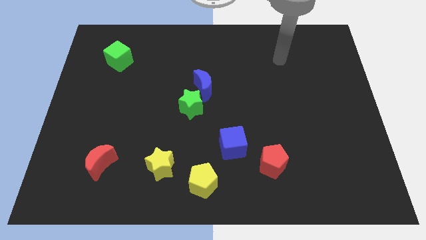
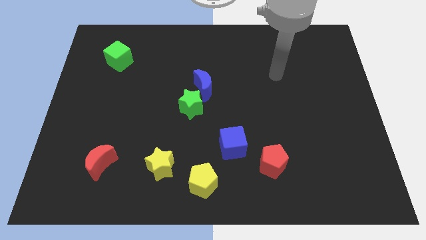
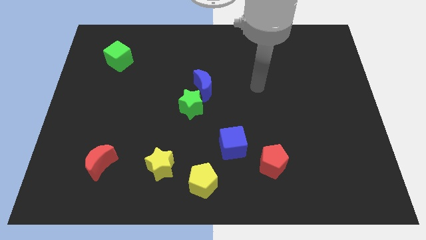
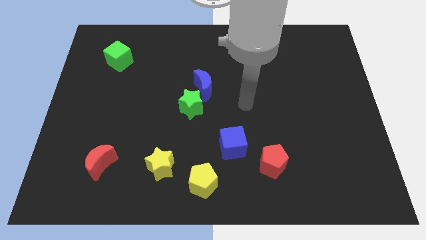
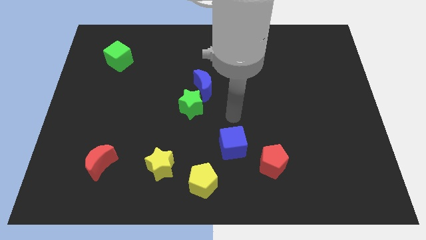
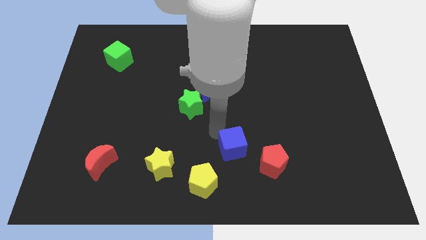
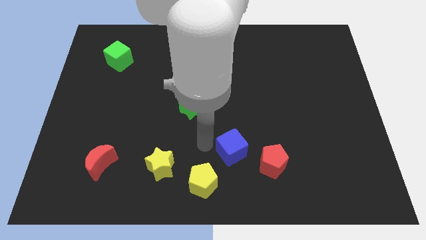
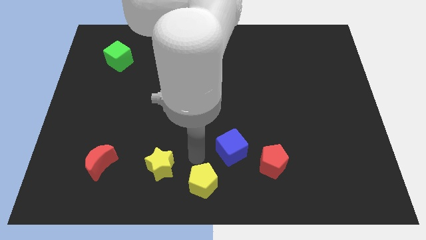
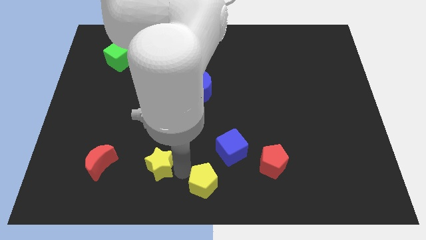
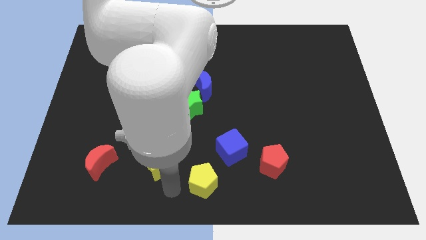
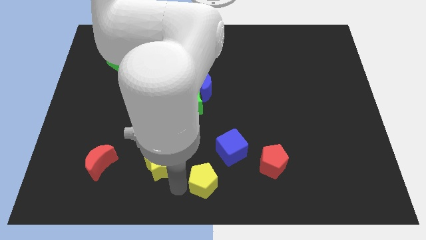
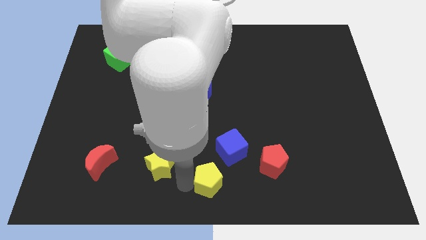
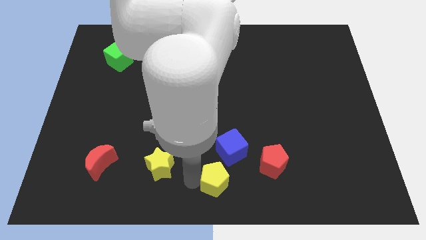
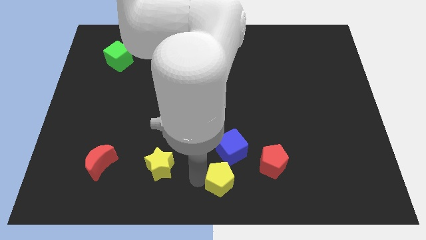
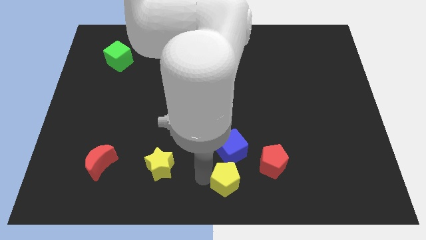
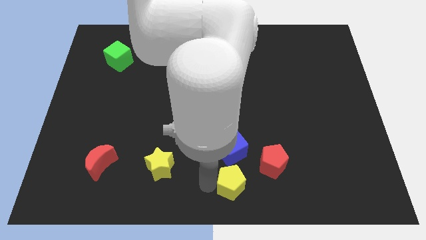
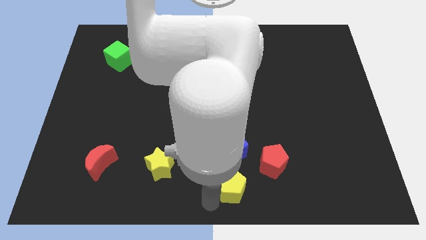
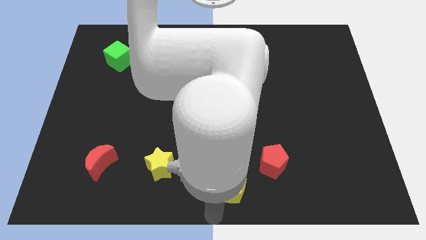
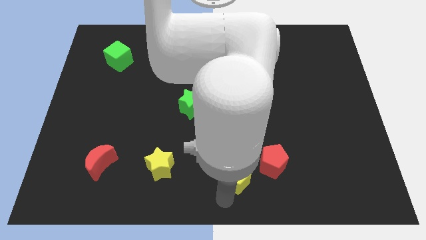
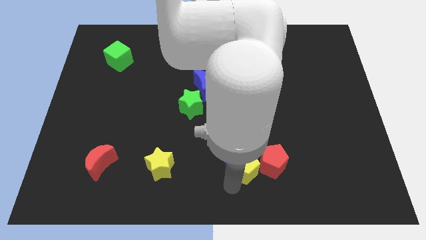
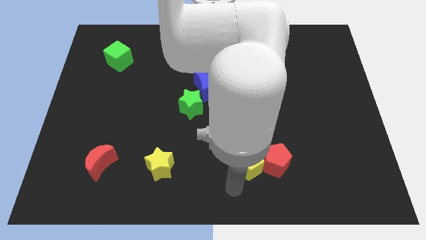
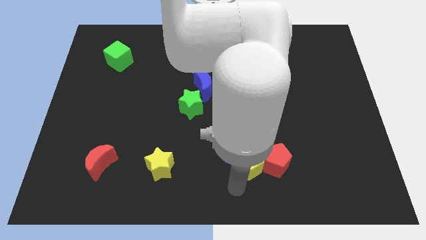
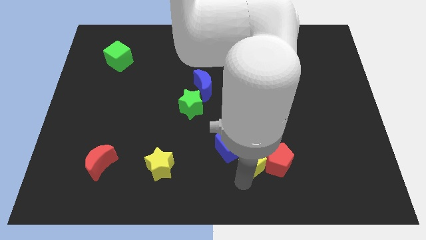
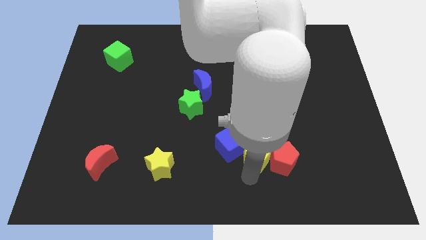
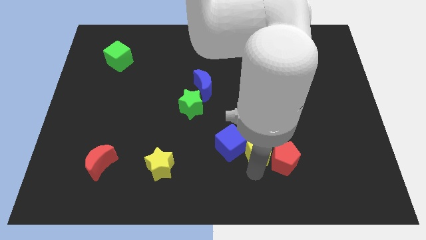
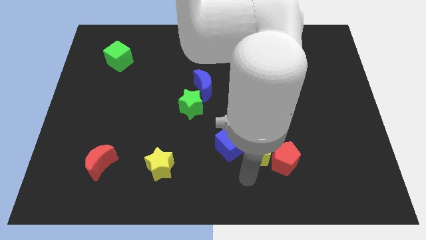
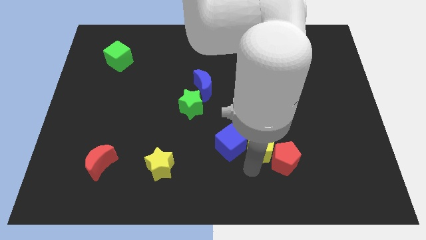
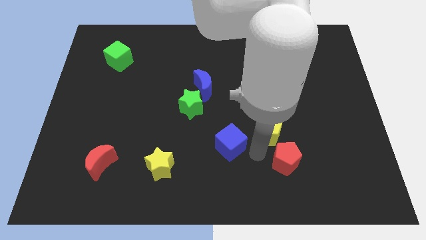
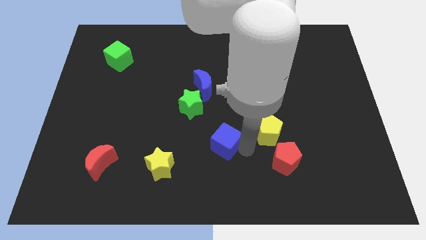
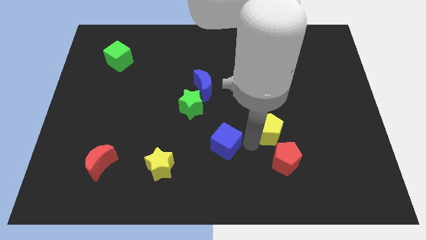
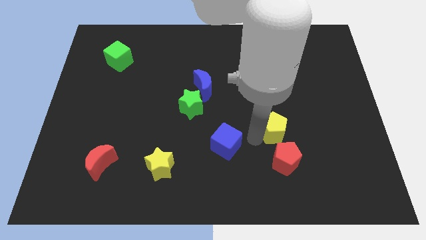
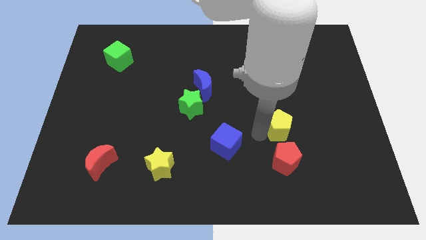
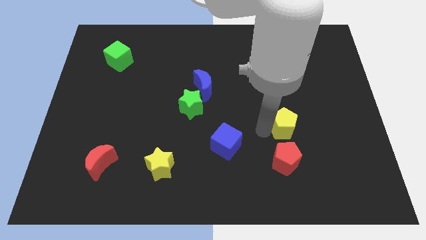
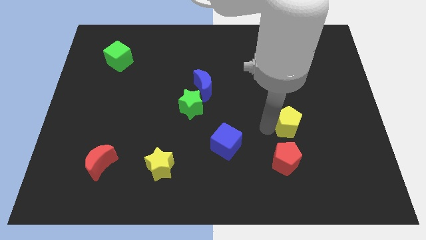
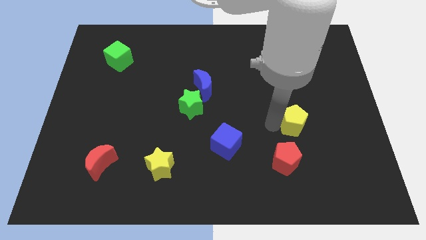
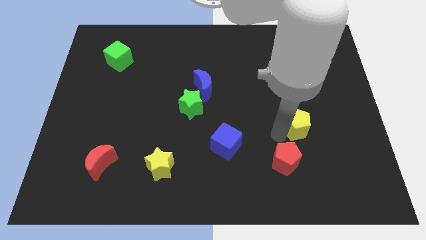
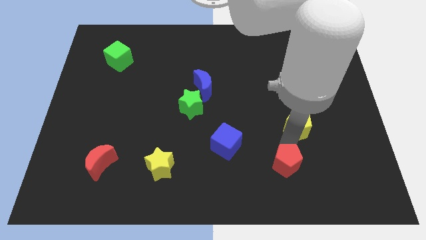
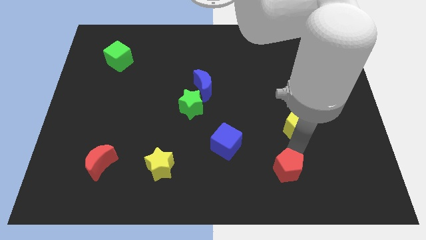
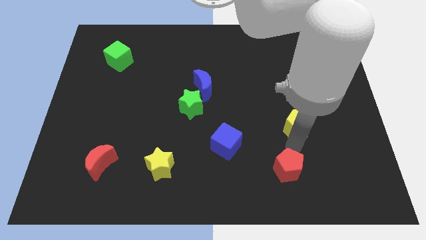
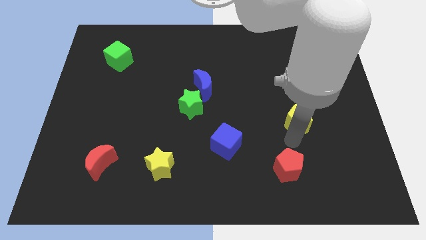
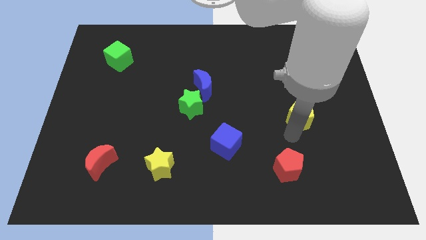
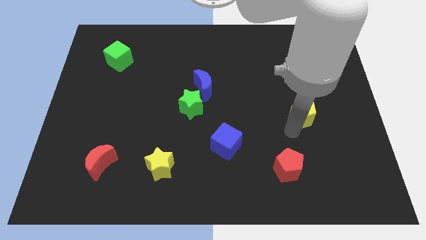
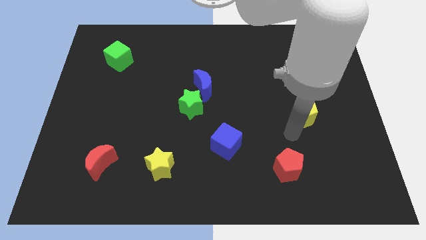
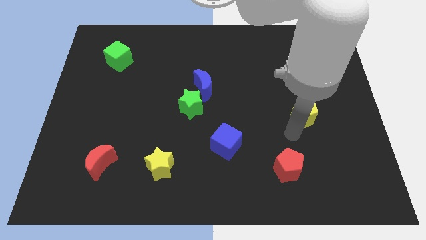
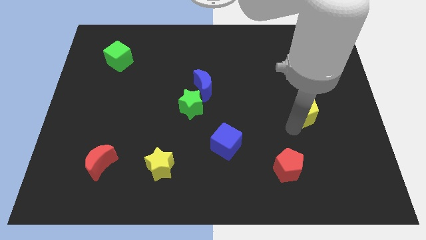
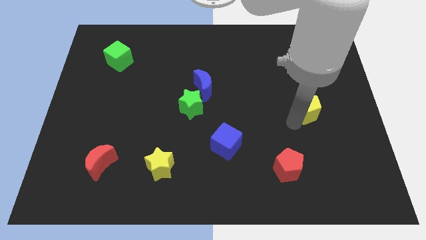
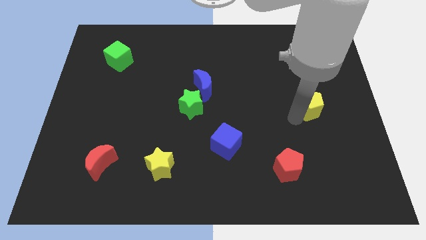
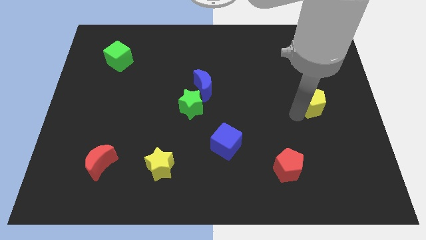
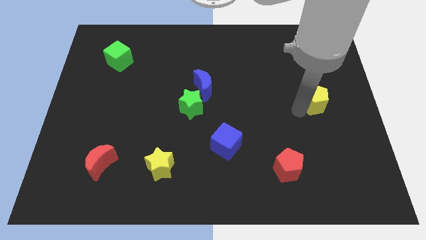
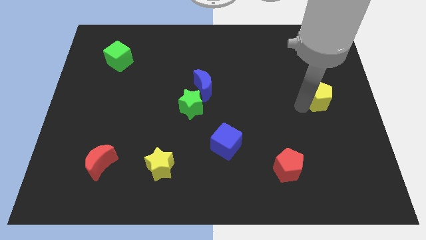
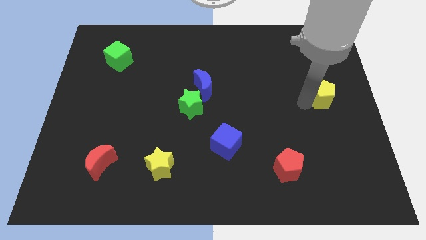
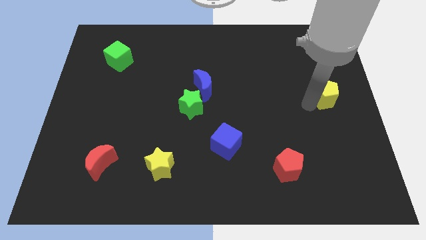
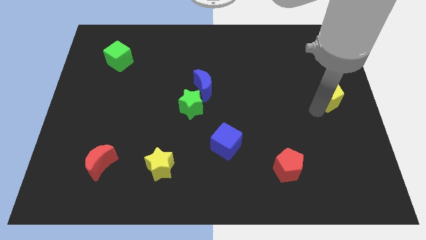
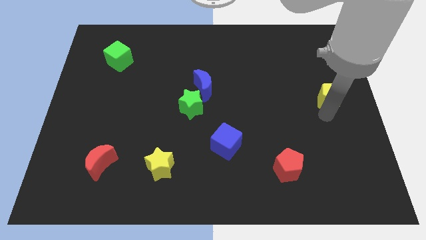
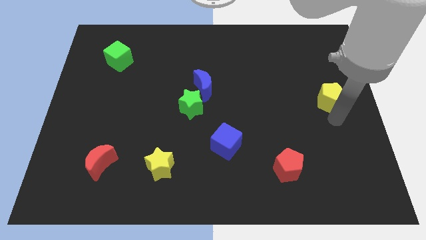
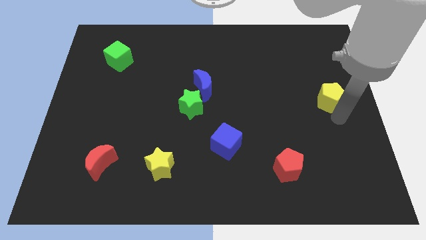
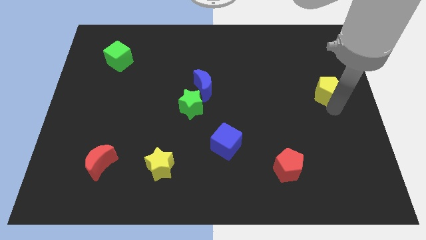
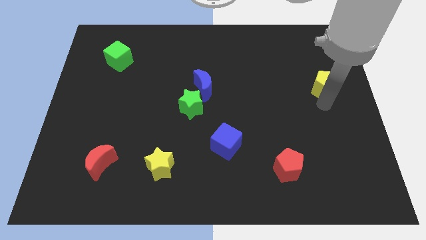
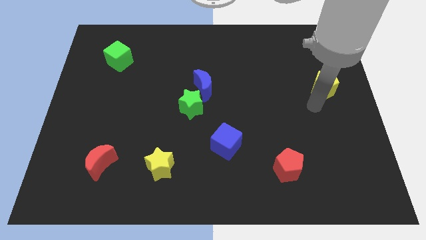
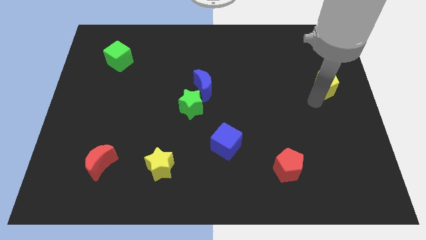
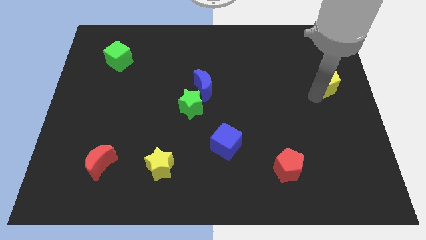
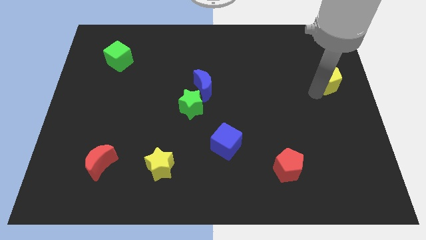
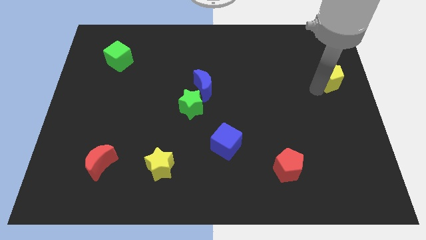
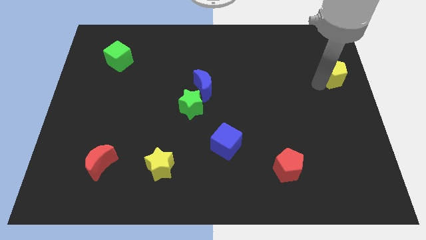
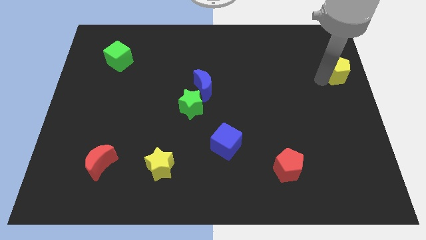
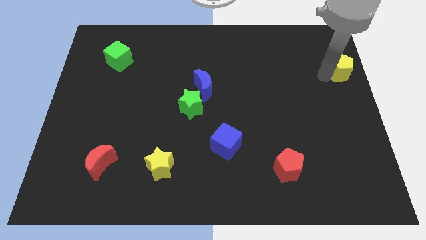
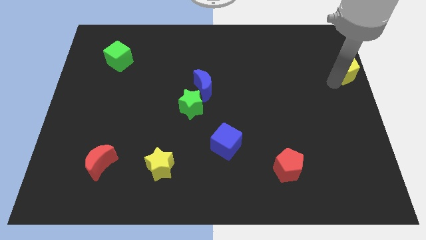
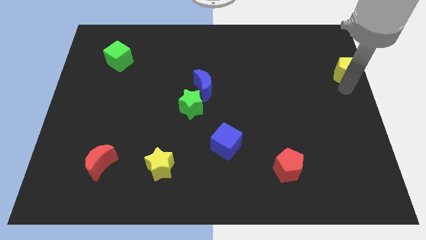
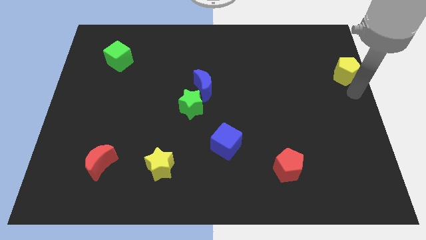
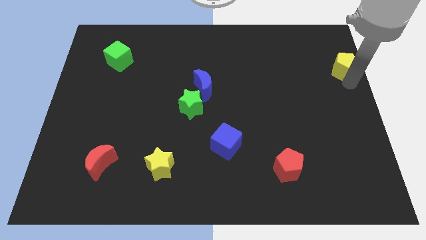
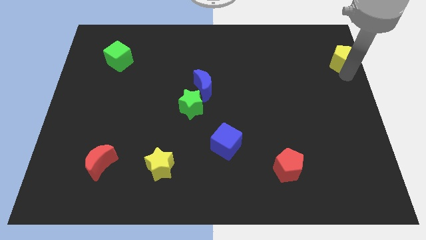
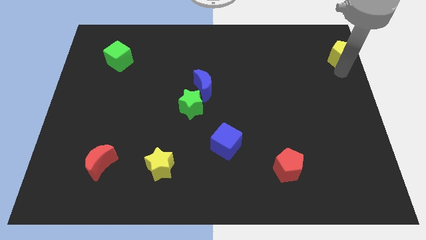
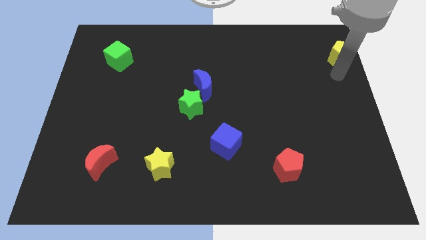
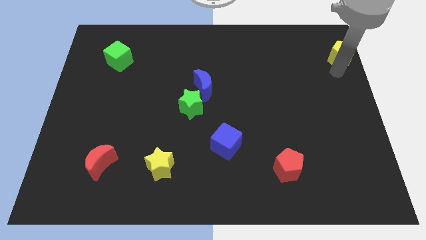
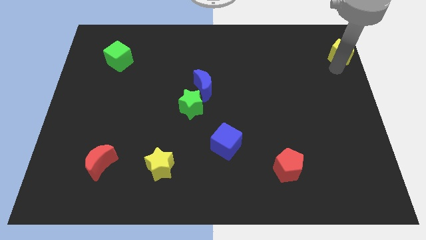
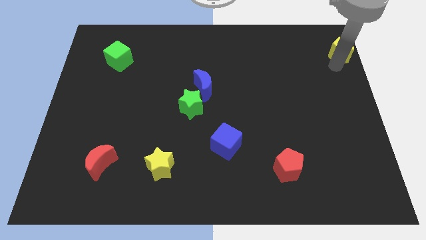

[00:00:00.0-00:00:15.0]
slide the yellow pentagon to the upper right corner
